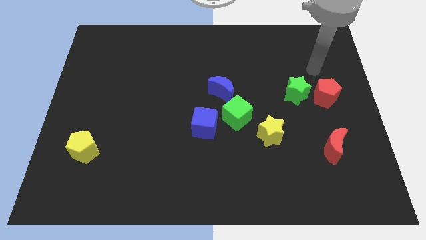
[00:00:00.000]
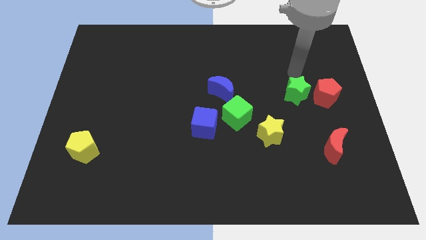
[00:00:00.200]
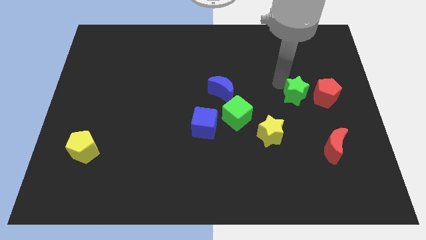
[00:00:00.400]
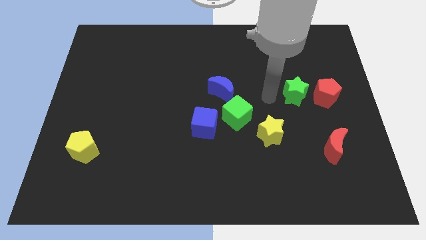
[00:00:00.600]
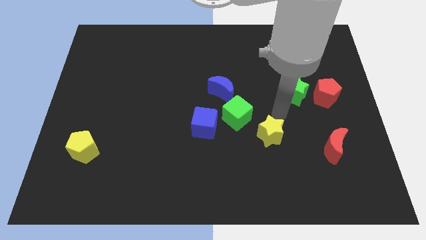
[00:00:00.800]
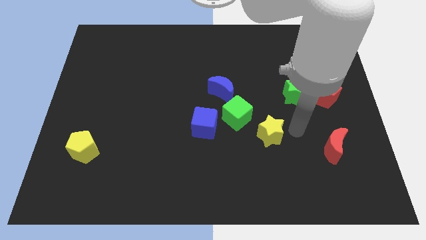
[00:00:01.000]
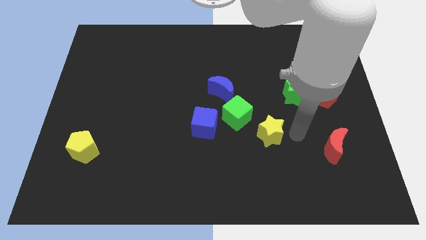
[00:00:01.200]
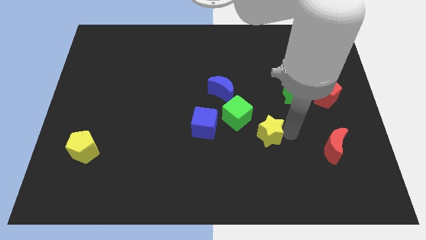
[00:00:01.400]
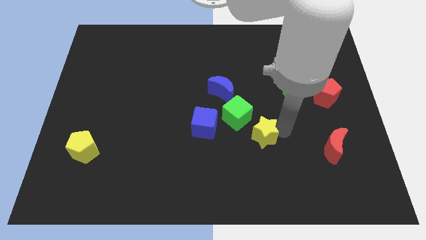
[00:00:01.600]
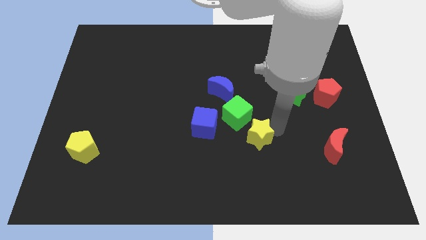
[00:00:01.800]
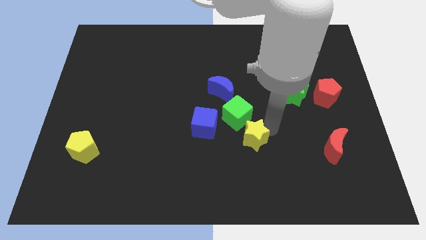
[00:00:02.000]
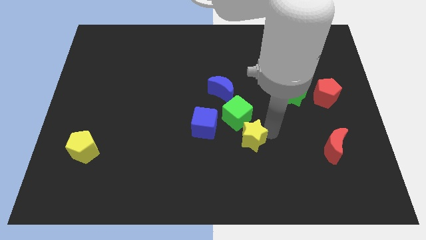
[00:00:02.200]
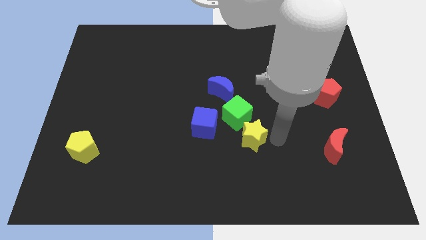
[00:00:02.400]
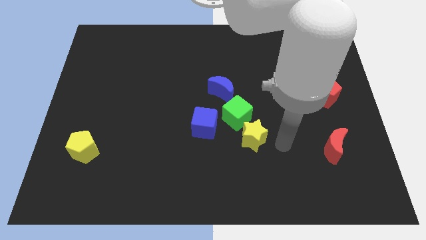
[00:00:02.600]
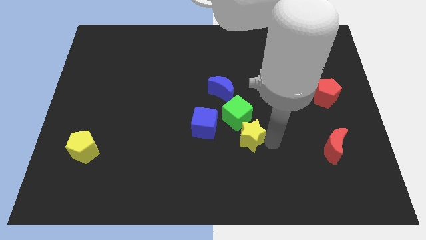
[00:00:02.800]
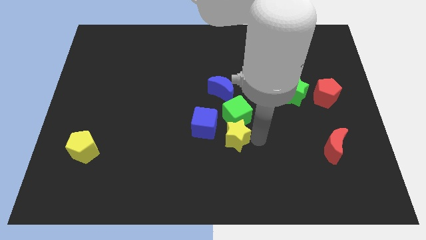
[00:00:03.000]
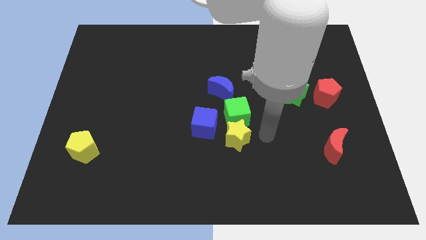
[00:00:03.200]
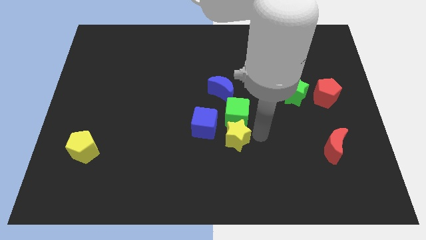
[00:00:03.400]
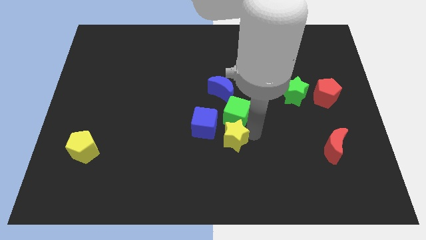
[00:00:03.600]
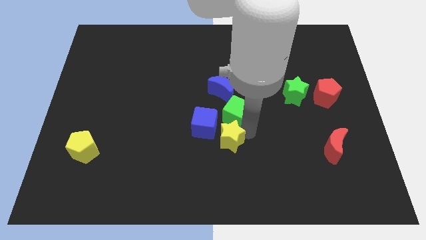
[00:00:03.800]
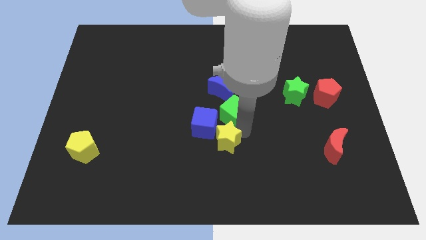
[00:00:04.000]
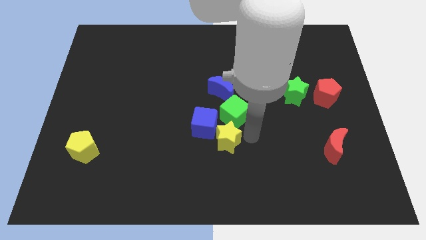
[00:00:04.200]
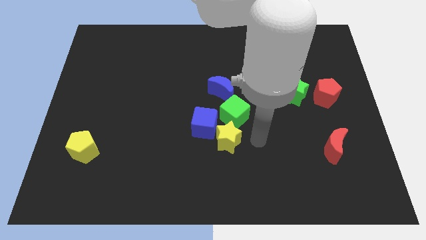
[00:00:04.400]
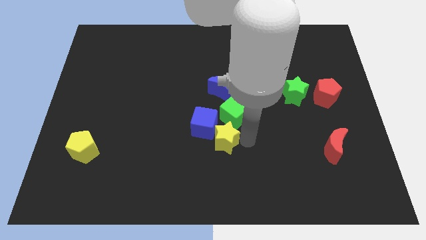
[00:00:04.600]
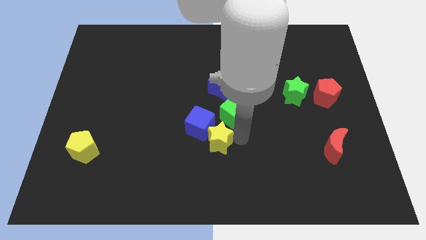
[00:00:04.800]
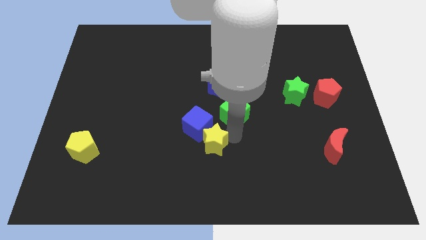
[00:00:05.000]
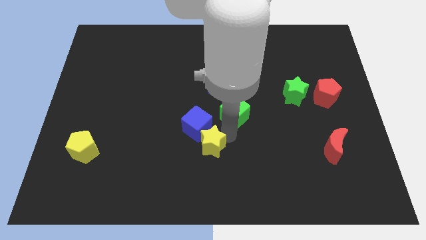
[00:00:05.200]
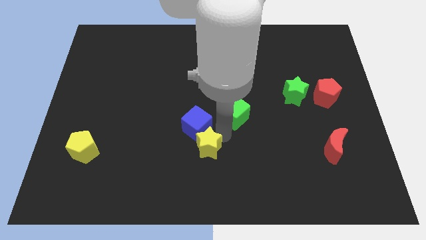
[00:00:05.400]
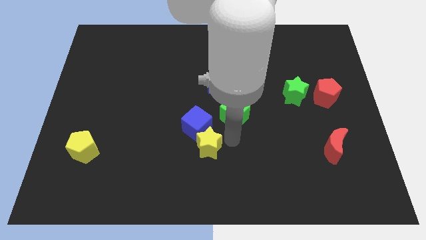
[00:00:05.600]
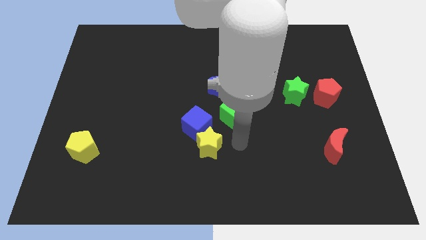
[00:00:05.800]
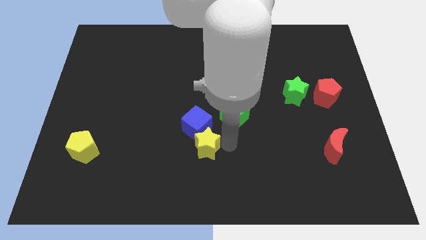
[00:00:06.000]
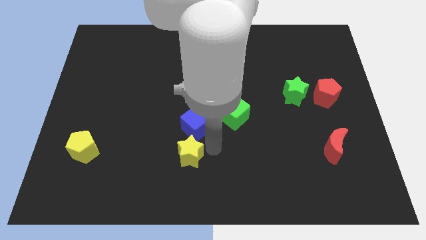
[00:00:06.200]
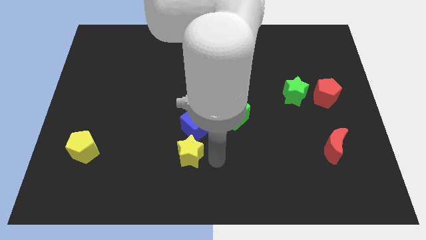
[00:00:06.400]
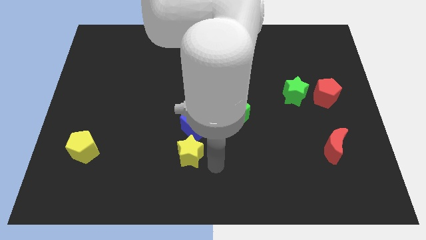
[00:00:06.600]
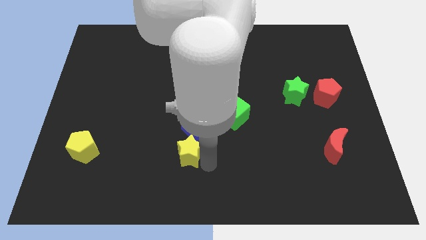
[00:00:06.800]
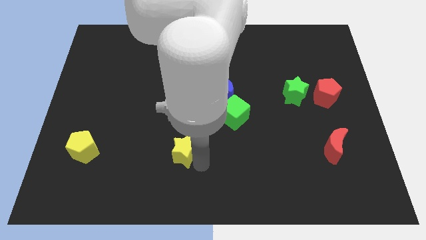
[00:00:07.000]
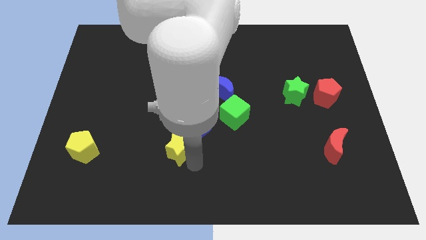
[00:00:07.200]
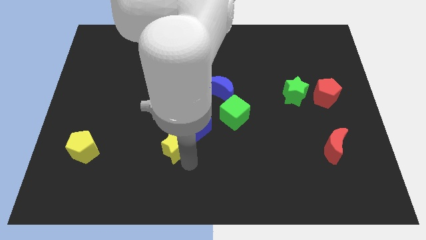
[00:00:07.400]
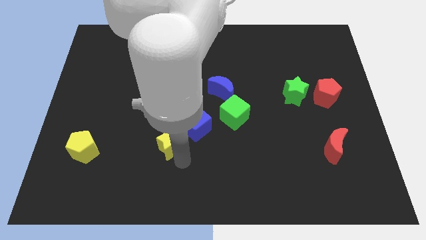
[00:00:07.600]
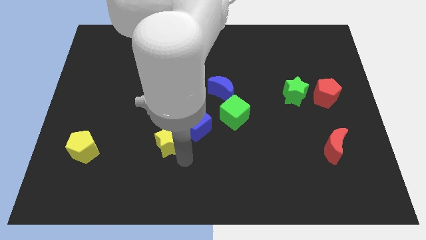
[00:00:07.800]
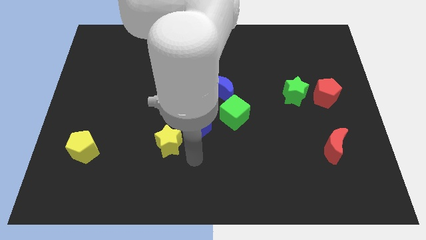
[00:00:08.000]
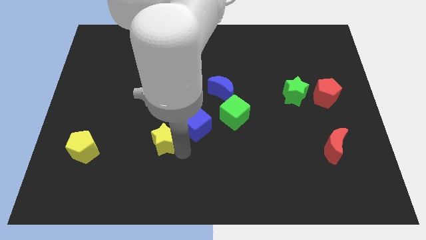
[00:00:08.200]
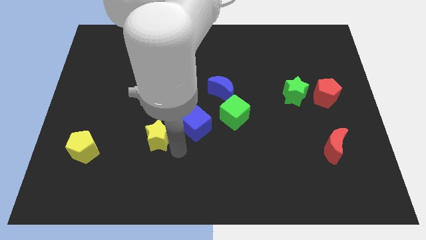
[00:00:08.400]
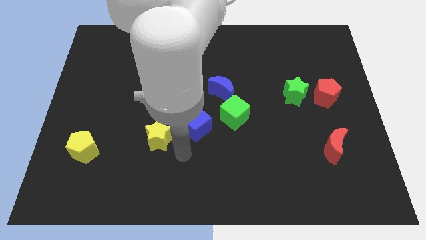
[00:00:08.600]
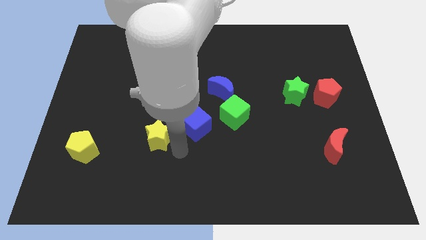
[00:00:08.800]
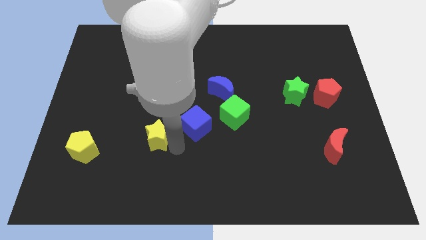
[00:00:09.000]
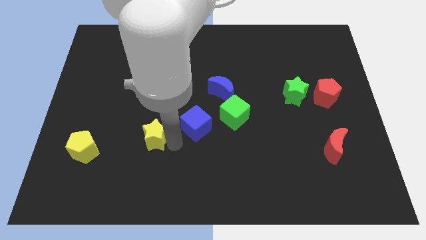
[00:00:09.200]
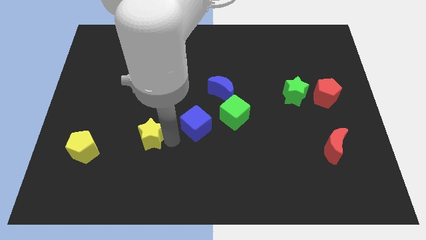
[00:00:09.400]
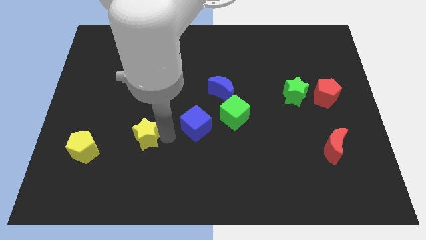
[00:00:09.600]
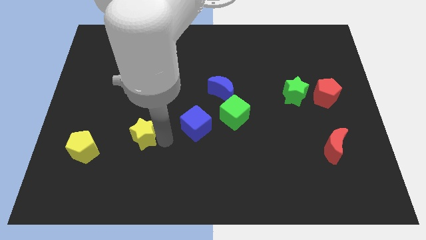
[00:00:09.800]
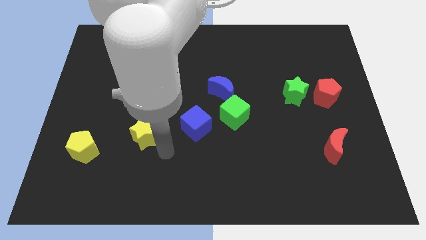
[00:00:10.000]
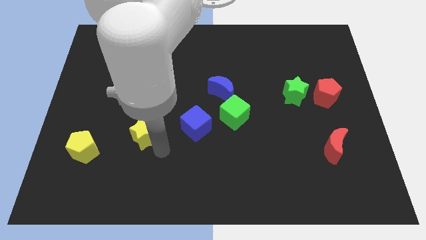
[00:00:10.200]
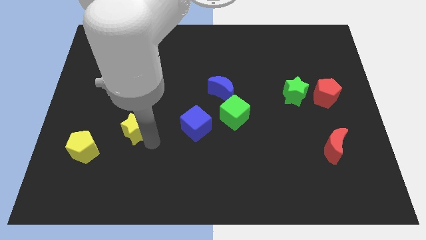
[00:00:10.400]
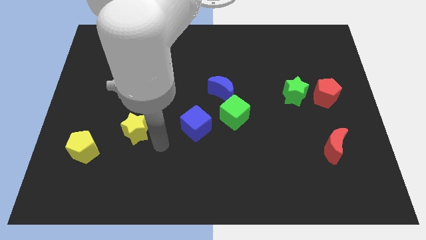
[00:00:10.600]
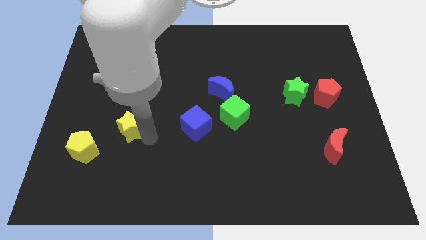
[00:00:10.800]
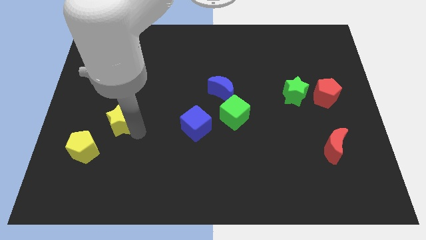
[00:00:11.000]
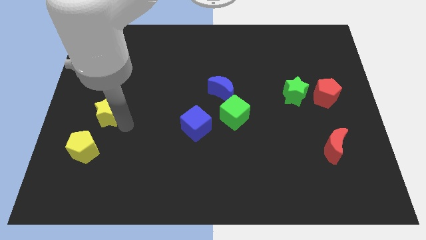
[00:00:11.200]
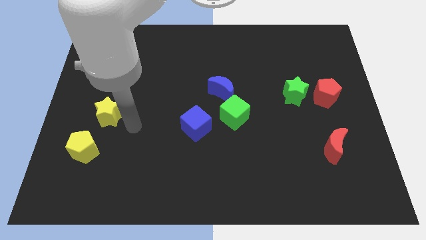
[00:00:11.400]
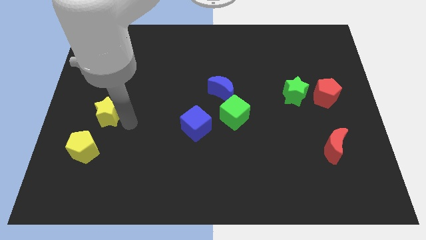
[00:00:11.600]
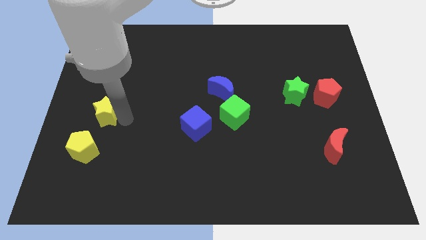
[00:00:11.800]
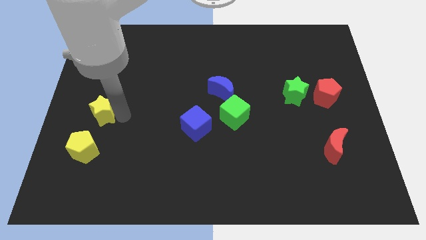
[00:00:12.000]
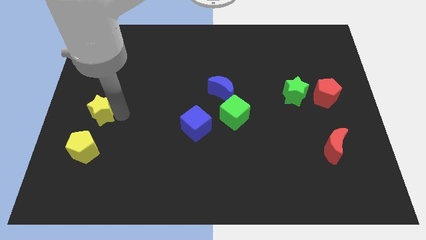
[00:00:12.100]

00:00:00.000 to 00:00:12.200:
move the yellow star to the center left

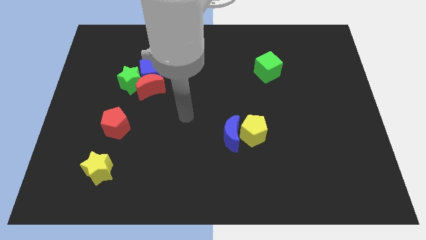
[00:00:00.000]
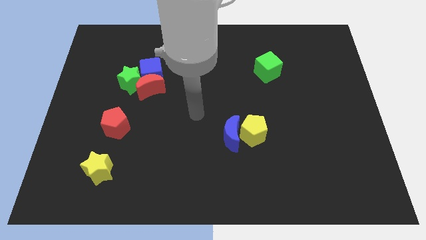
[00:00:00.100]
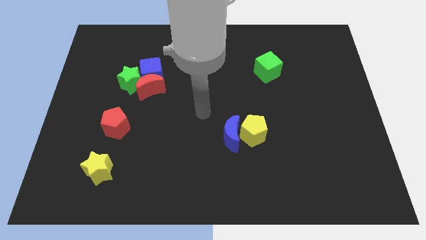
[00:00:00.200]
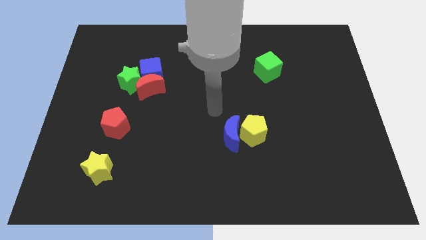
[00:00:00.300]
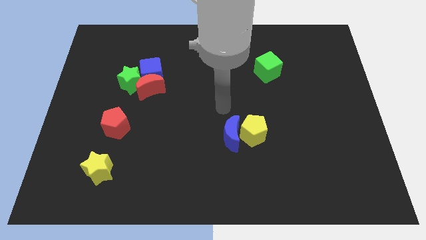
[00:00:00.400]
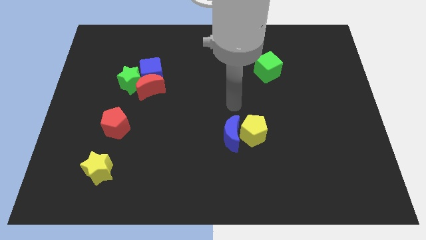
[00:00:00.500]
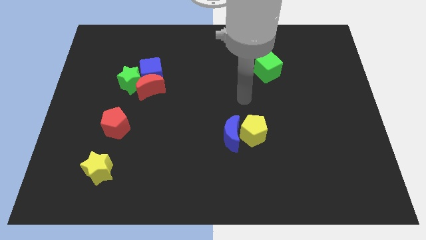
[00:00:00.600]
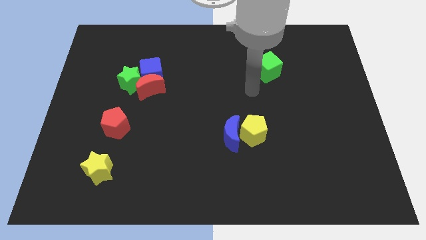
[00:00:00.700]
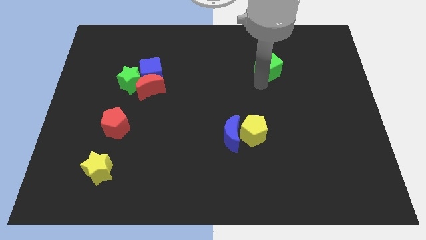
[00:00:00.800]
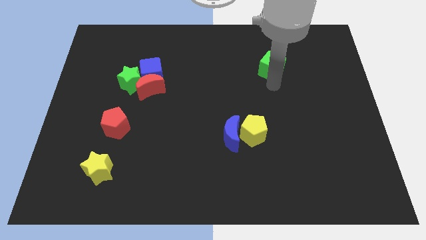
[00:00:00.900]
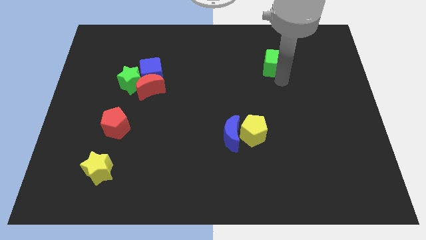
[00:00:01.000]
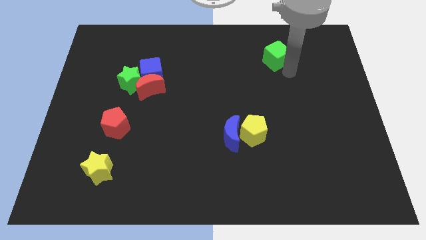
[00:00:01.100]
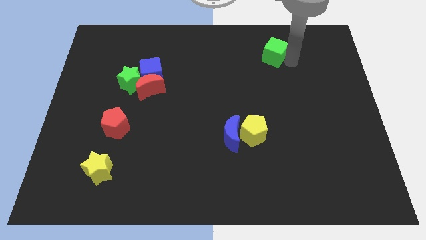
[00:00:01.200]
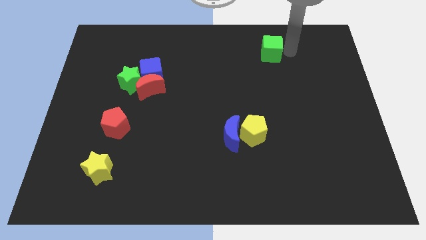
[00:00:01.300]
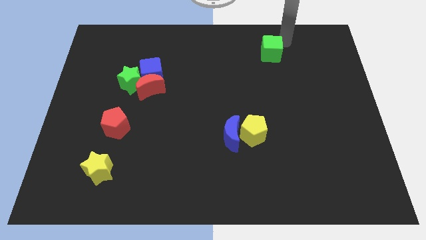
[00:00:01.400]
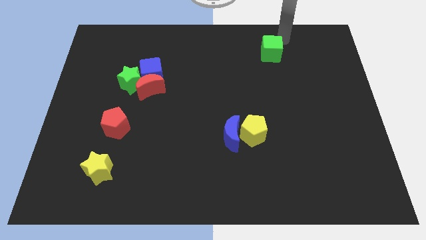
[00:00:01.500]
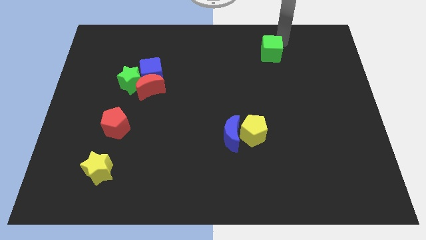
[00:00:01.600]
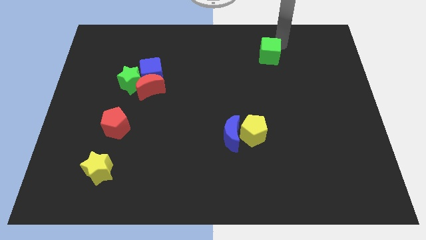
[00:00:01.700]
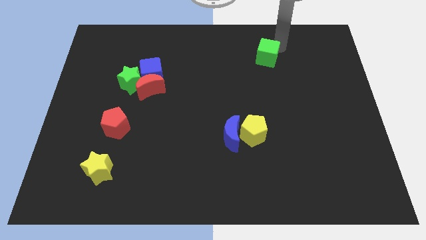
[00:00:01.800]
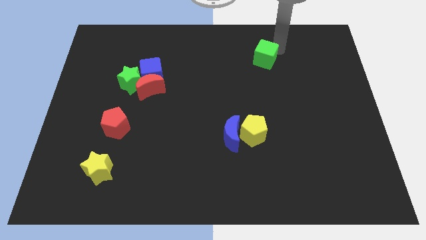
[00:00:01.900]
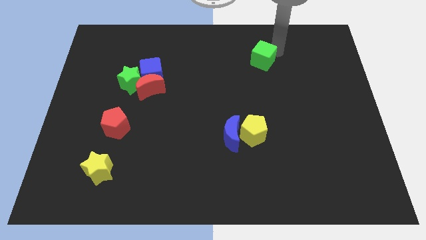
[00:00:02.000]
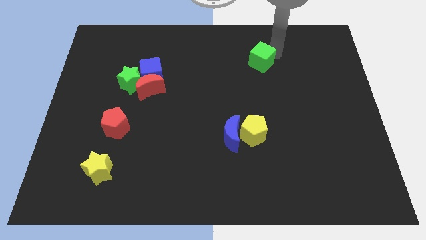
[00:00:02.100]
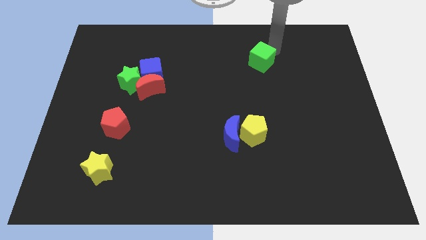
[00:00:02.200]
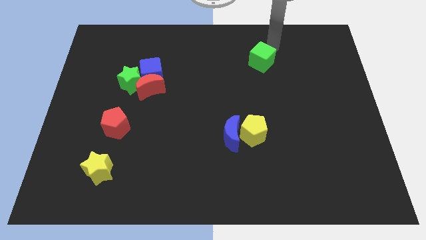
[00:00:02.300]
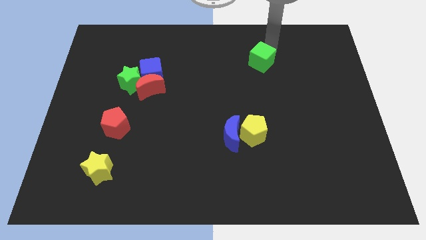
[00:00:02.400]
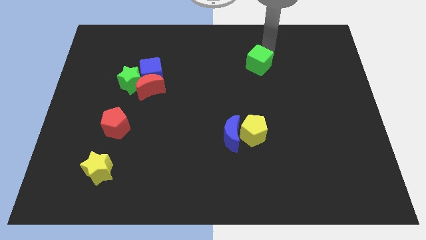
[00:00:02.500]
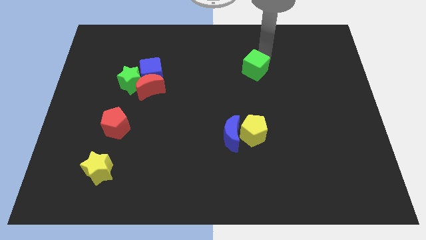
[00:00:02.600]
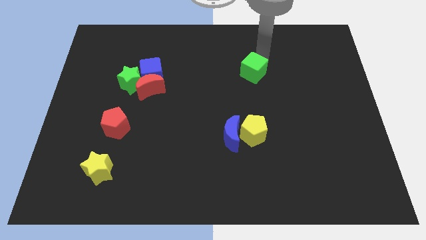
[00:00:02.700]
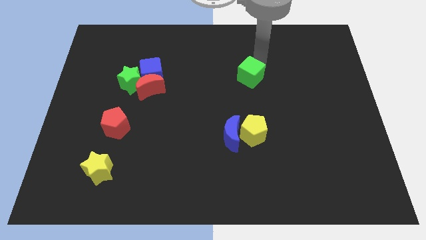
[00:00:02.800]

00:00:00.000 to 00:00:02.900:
push the green cube to the middle of the board
